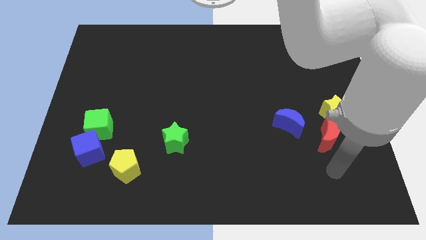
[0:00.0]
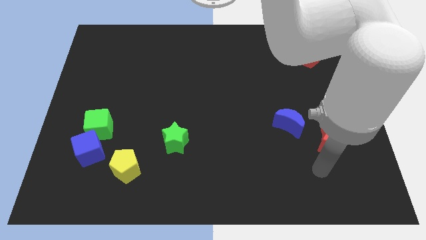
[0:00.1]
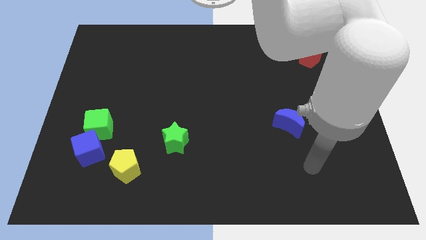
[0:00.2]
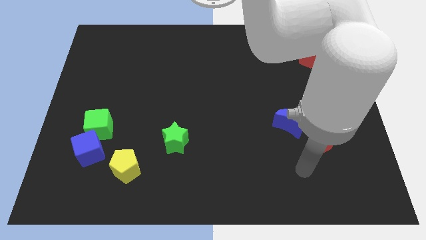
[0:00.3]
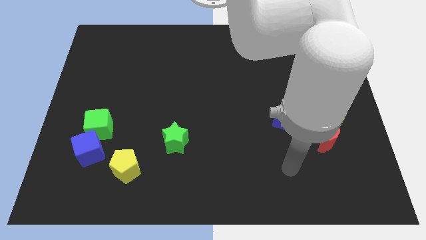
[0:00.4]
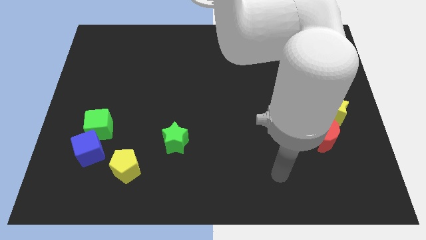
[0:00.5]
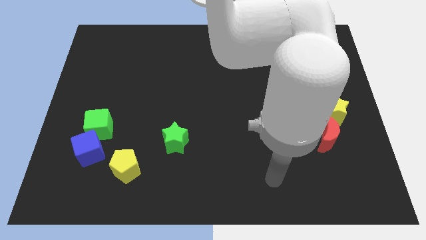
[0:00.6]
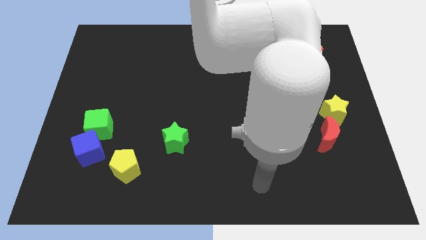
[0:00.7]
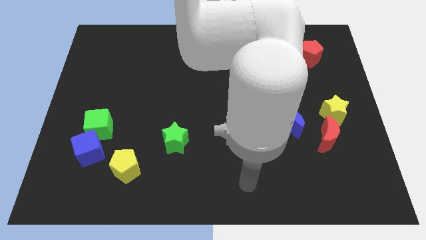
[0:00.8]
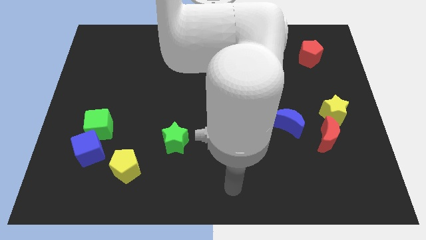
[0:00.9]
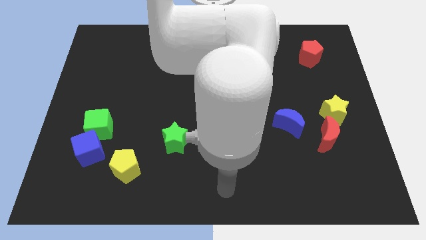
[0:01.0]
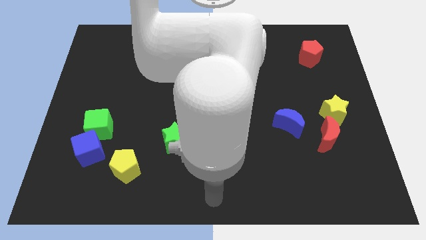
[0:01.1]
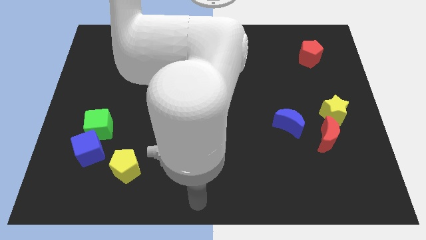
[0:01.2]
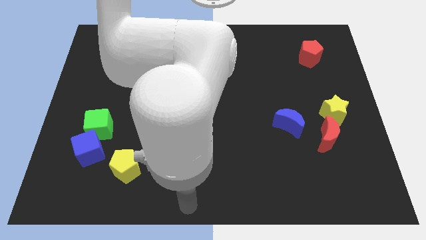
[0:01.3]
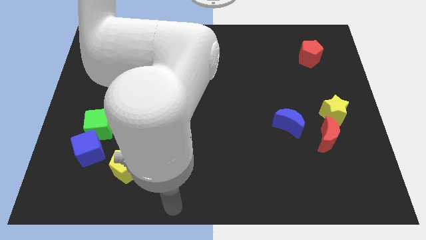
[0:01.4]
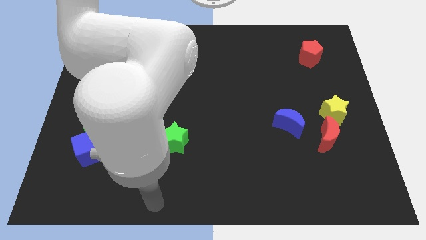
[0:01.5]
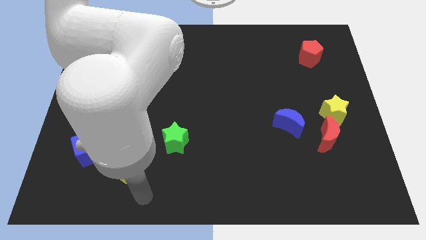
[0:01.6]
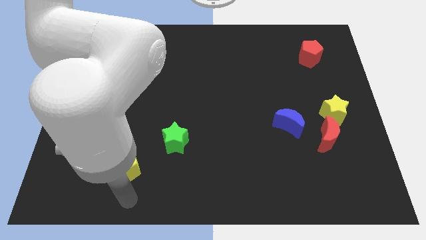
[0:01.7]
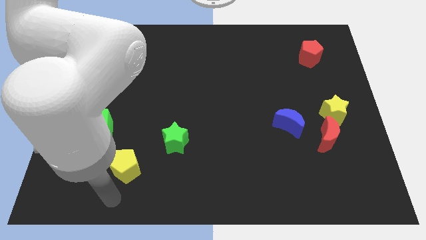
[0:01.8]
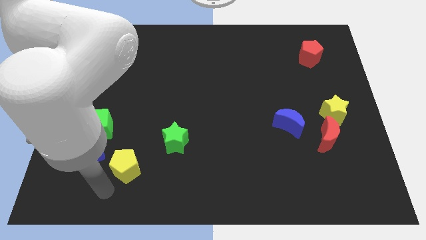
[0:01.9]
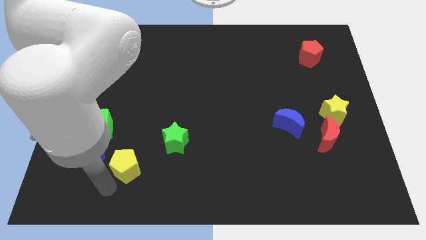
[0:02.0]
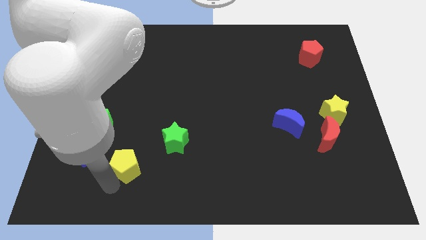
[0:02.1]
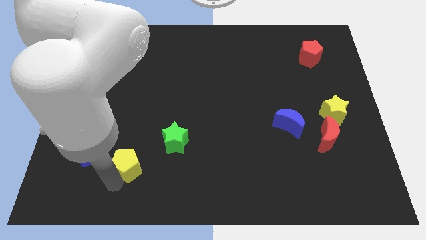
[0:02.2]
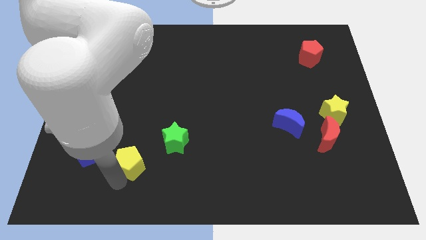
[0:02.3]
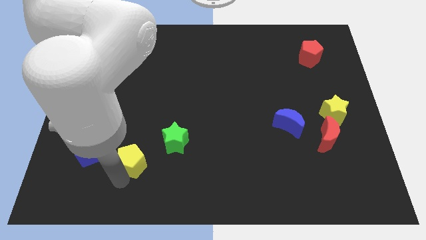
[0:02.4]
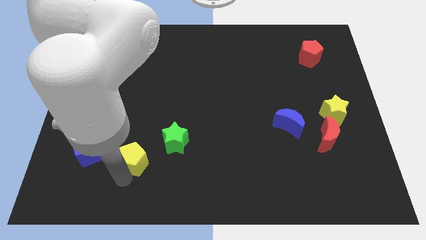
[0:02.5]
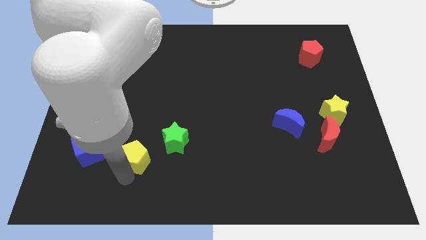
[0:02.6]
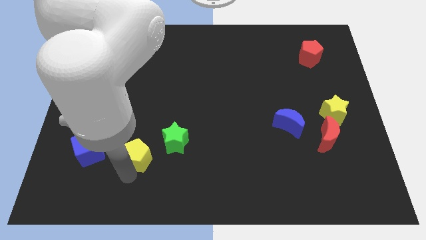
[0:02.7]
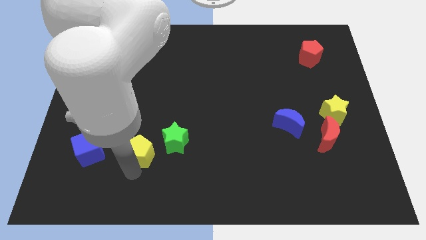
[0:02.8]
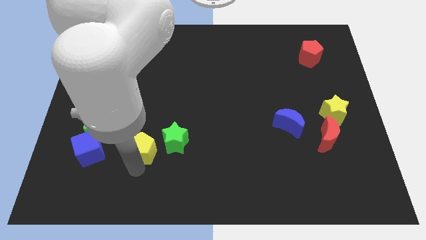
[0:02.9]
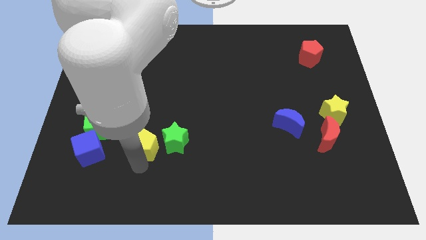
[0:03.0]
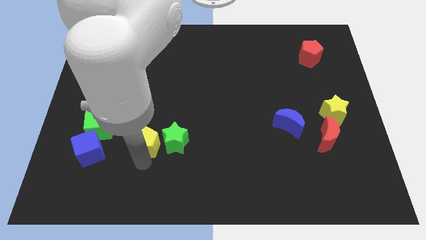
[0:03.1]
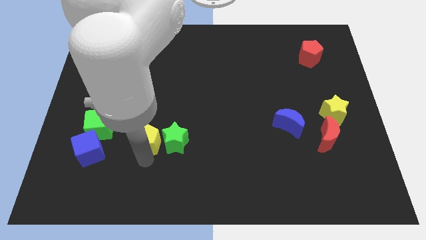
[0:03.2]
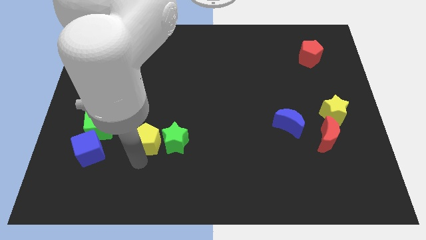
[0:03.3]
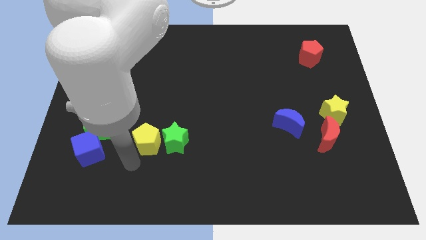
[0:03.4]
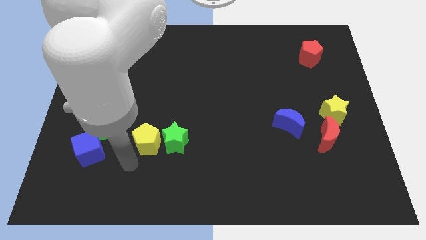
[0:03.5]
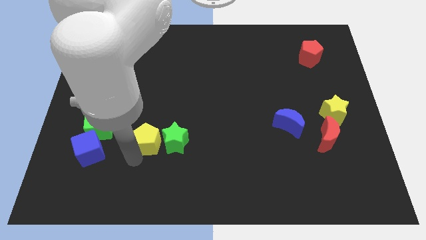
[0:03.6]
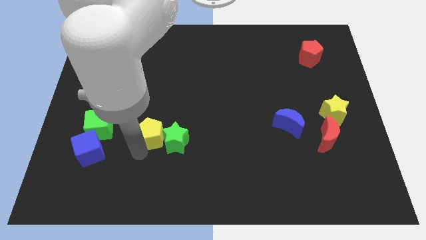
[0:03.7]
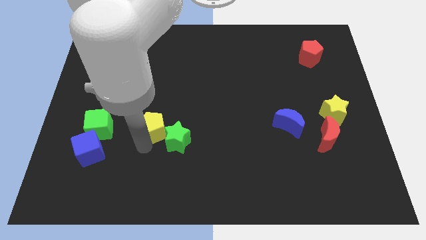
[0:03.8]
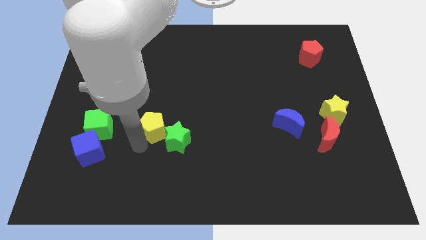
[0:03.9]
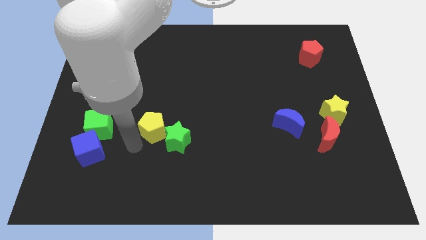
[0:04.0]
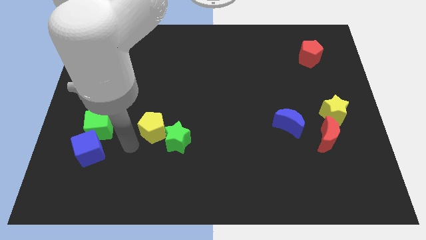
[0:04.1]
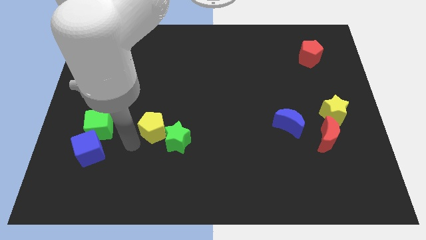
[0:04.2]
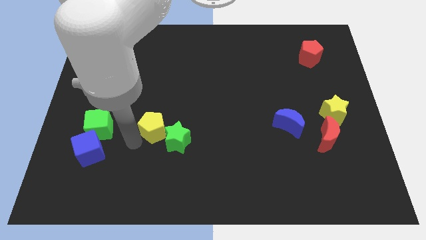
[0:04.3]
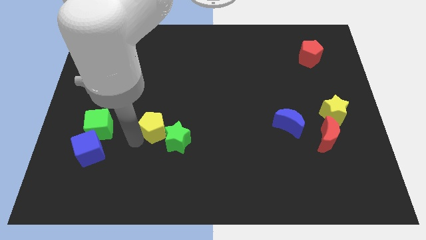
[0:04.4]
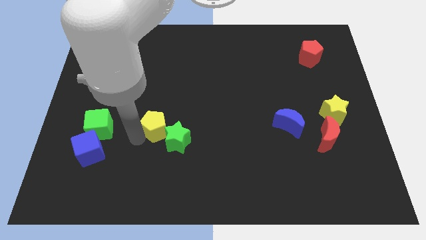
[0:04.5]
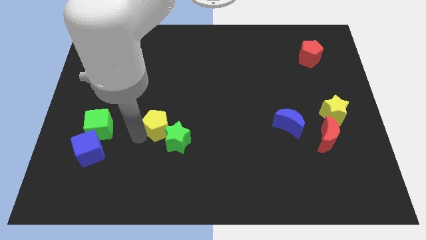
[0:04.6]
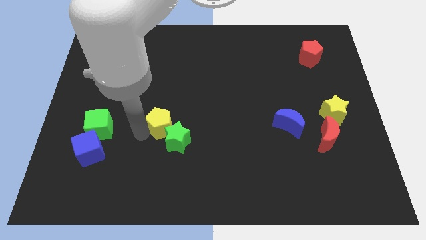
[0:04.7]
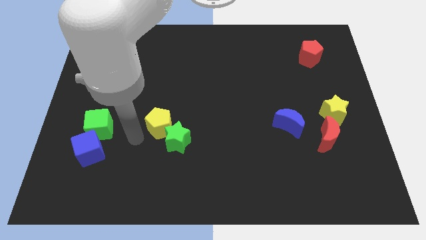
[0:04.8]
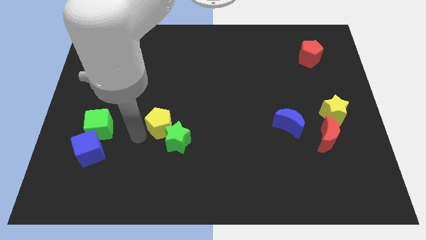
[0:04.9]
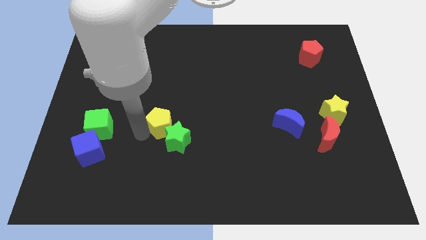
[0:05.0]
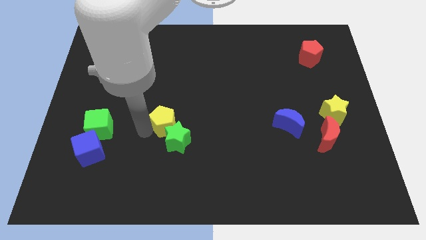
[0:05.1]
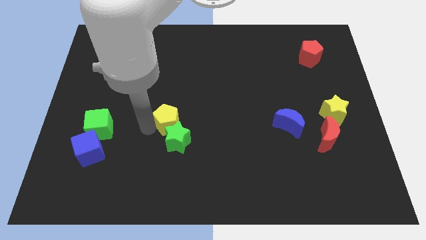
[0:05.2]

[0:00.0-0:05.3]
push the yellow pentagon to the center of the board

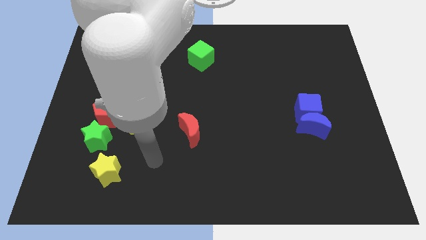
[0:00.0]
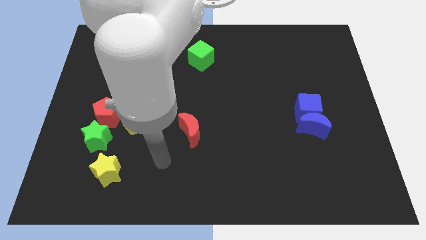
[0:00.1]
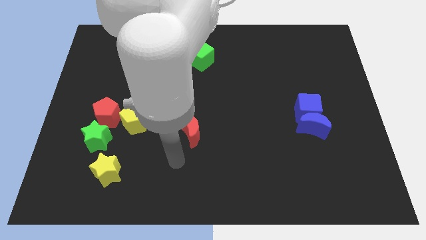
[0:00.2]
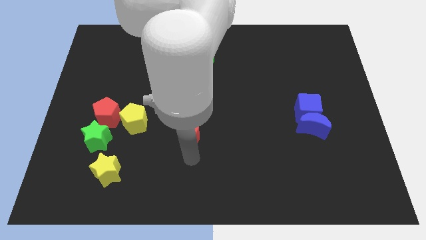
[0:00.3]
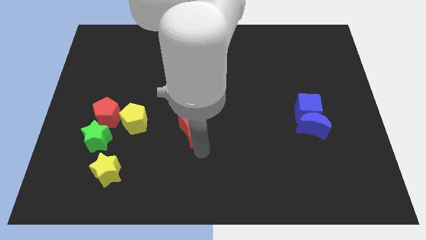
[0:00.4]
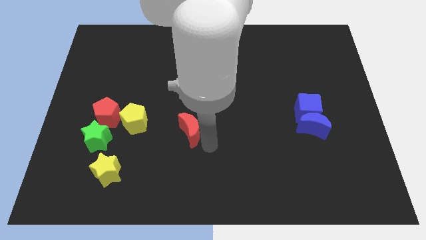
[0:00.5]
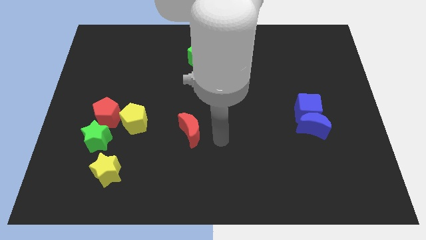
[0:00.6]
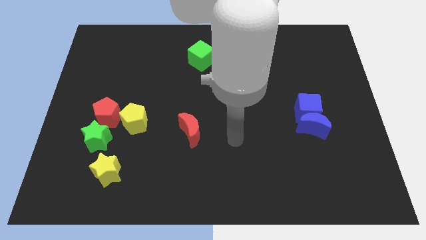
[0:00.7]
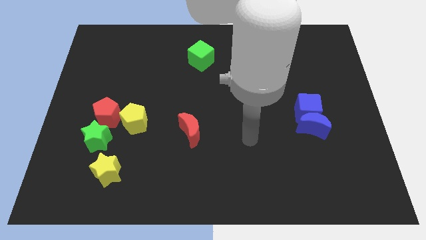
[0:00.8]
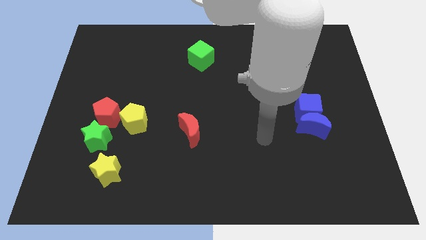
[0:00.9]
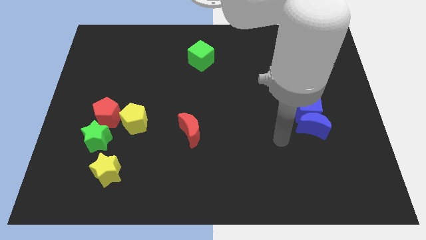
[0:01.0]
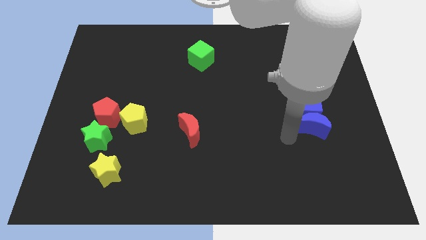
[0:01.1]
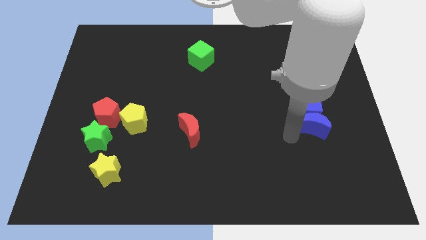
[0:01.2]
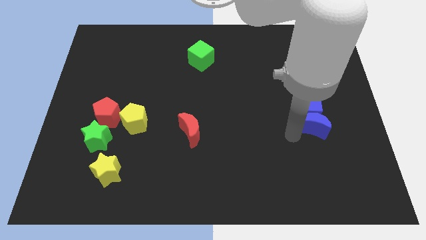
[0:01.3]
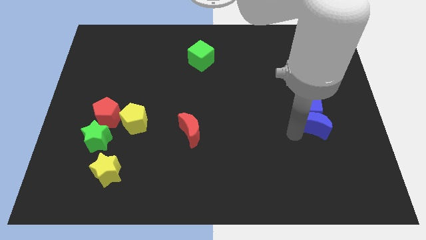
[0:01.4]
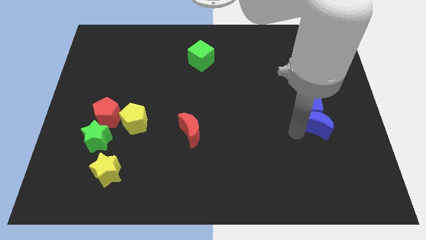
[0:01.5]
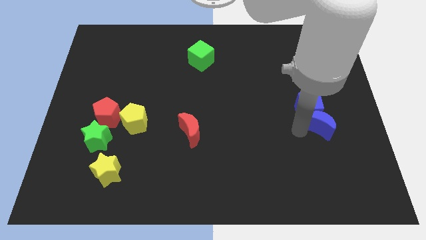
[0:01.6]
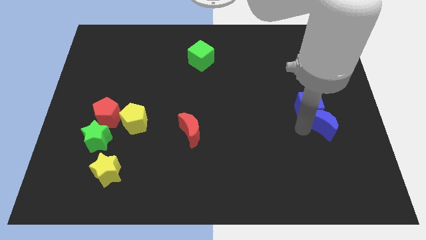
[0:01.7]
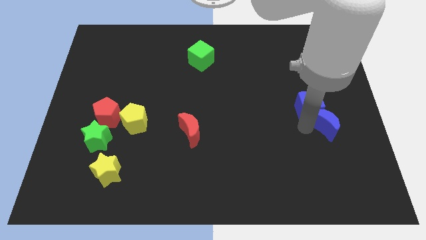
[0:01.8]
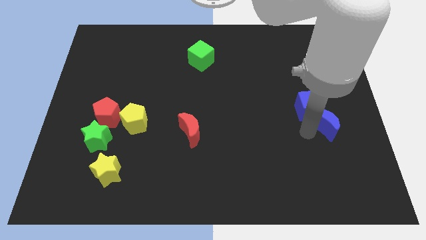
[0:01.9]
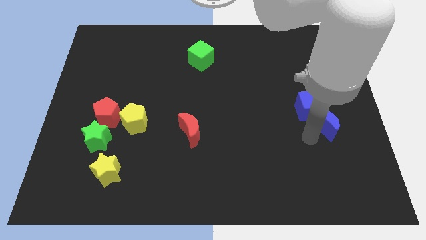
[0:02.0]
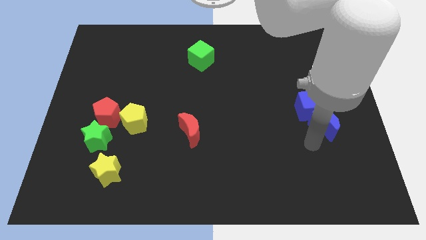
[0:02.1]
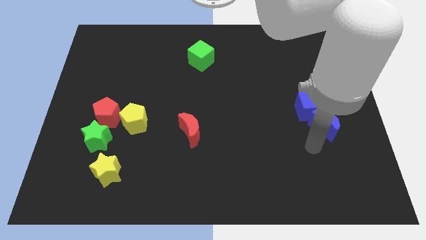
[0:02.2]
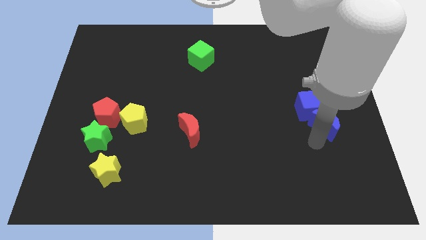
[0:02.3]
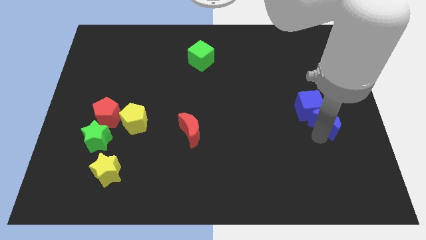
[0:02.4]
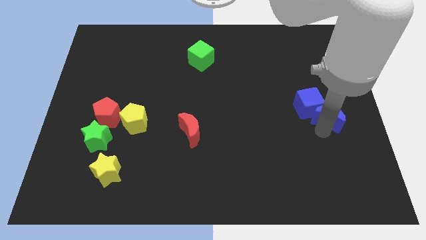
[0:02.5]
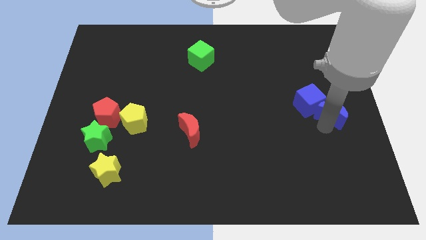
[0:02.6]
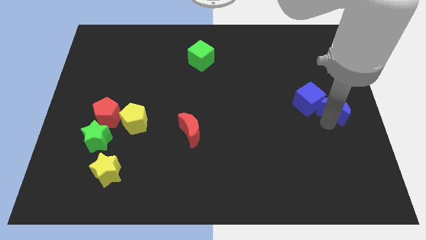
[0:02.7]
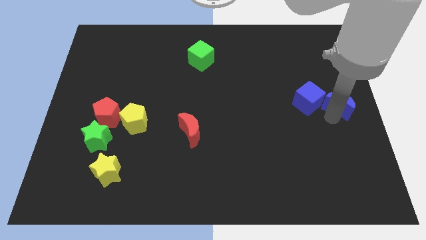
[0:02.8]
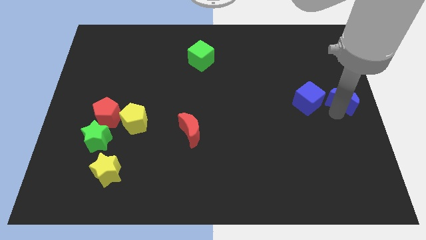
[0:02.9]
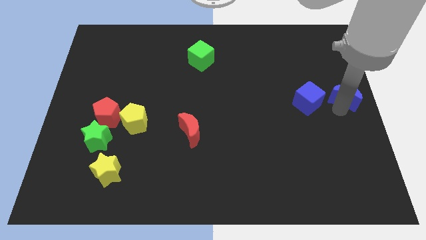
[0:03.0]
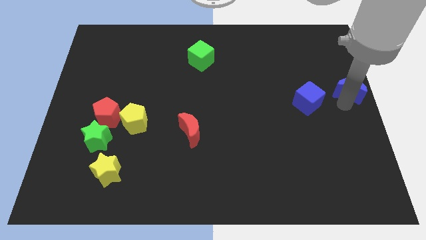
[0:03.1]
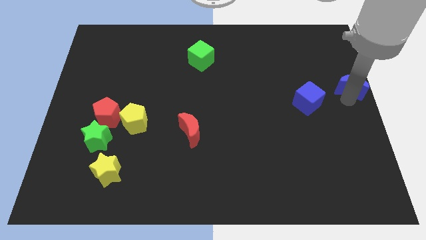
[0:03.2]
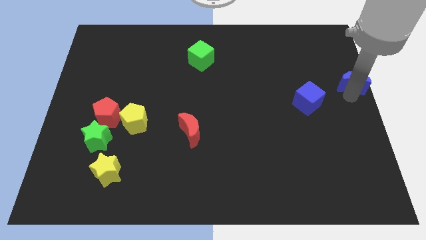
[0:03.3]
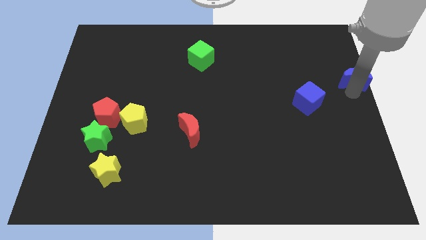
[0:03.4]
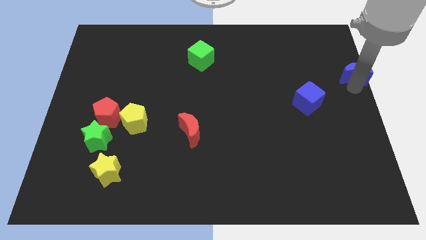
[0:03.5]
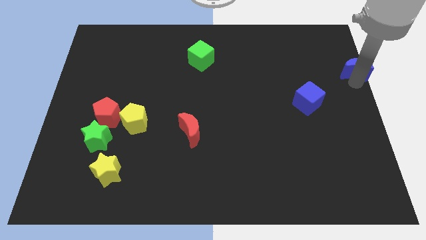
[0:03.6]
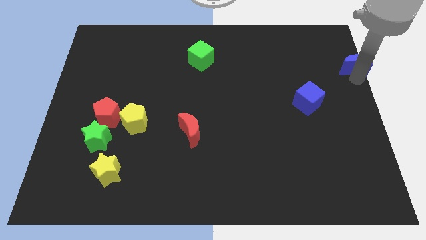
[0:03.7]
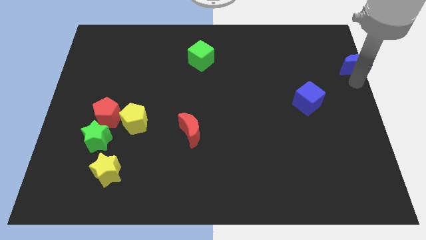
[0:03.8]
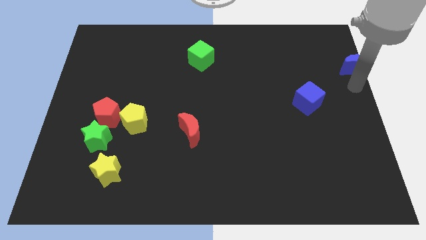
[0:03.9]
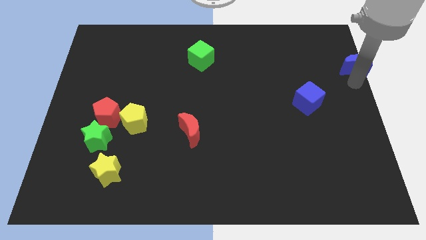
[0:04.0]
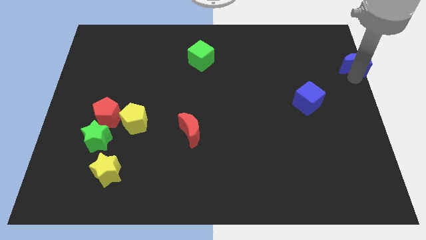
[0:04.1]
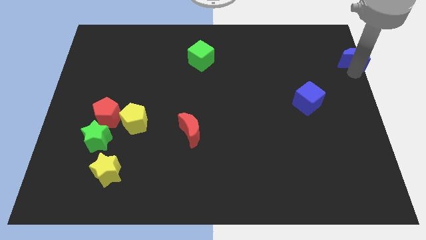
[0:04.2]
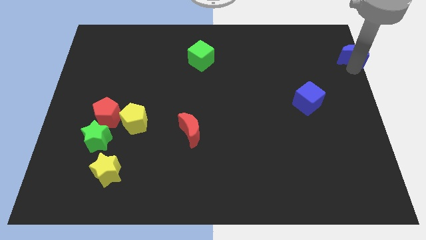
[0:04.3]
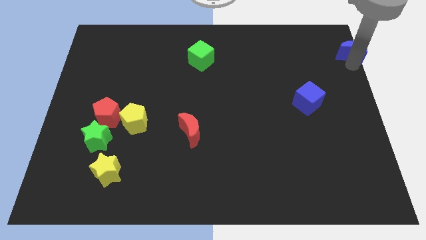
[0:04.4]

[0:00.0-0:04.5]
slide the blue moon to the upper right corner
